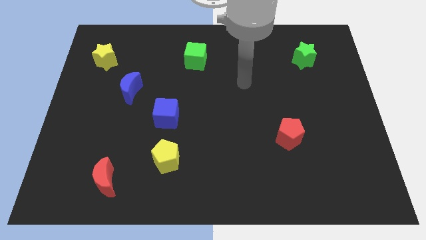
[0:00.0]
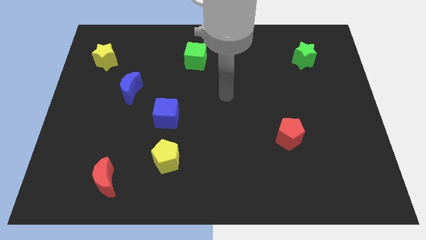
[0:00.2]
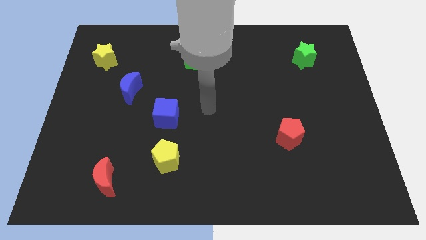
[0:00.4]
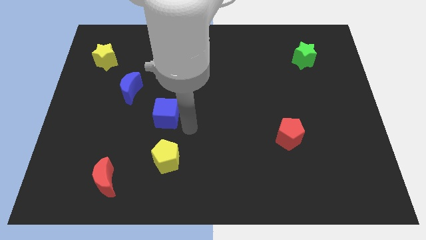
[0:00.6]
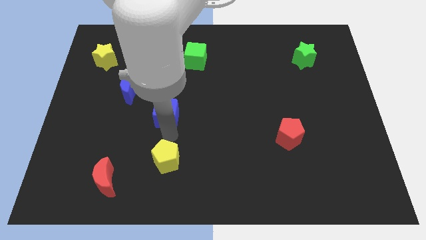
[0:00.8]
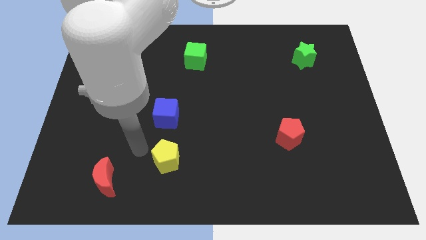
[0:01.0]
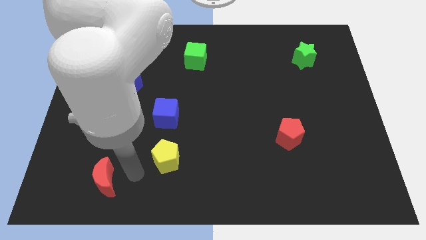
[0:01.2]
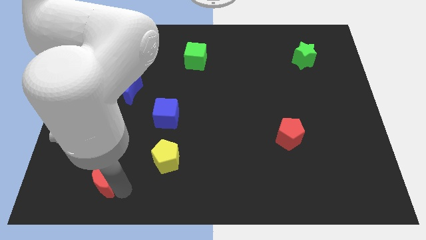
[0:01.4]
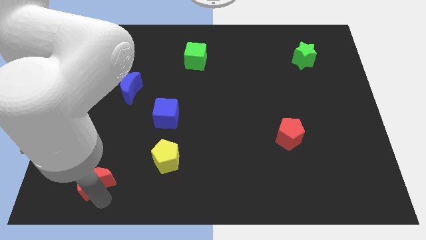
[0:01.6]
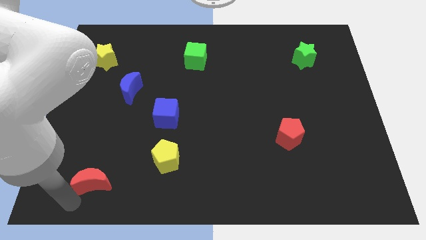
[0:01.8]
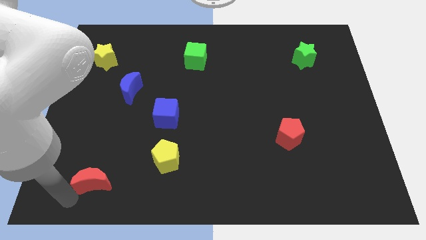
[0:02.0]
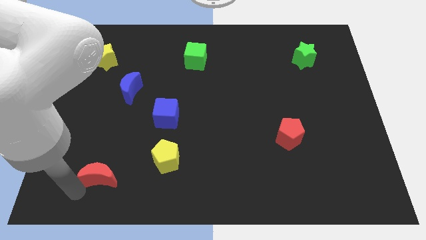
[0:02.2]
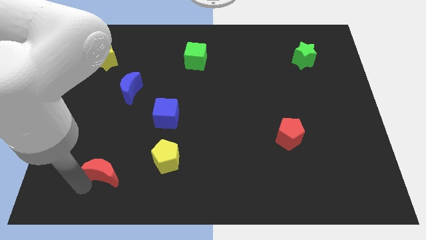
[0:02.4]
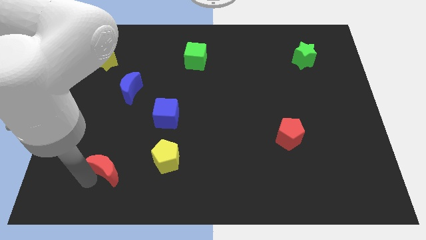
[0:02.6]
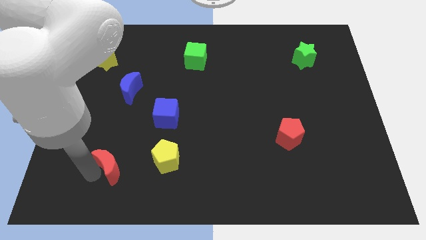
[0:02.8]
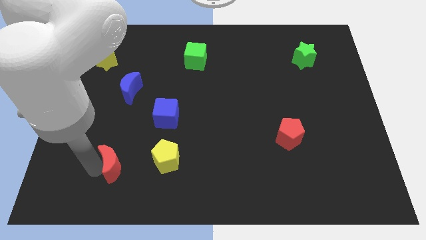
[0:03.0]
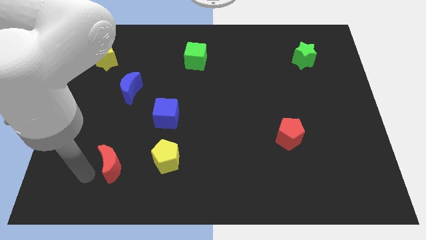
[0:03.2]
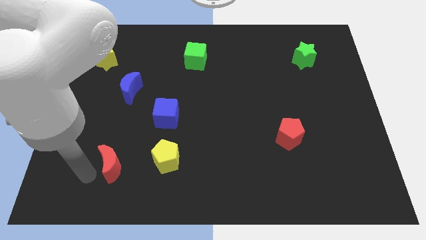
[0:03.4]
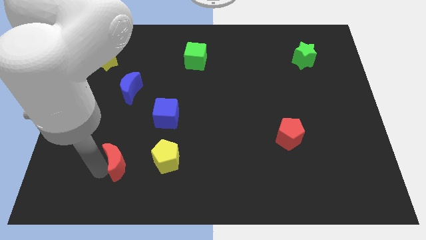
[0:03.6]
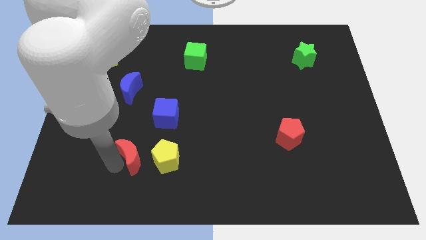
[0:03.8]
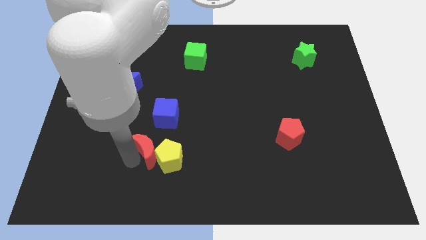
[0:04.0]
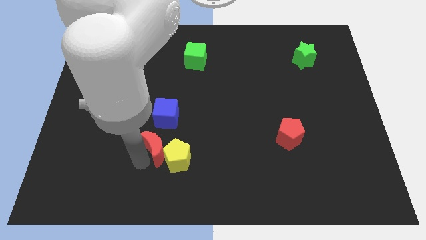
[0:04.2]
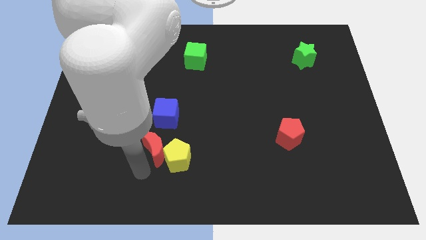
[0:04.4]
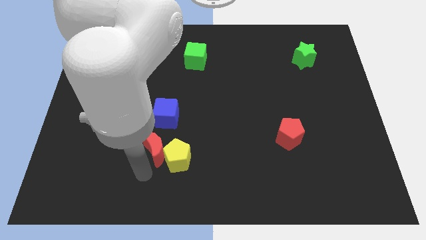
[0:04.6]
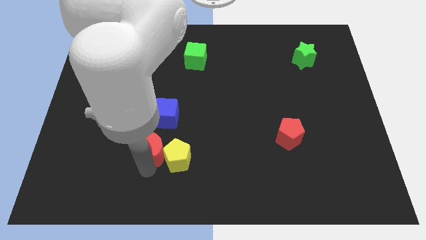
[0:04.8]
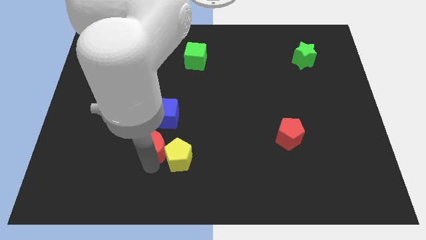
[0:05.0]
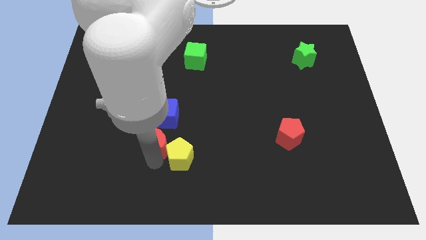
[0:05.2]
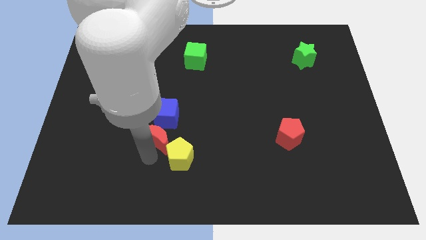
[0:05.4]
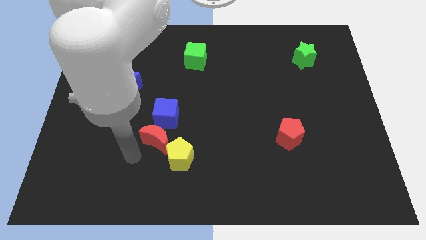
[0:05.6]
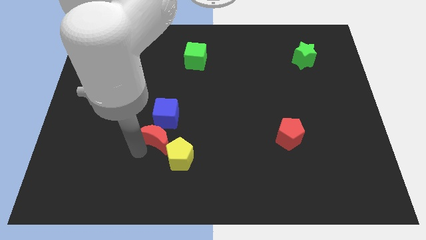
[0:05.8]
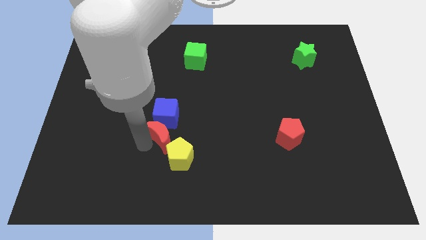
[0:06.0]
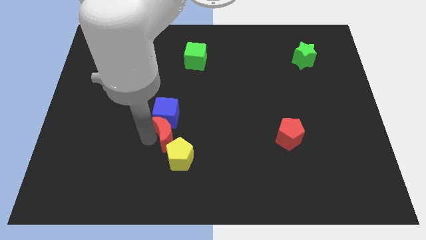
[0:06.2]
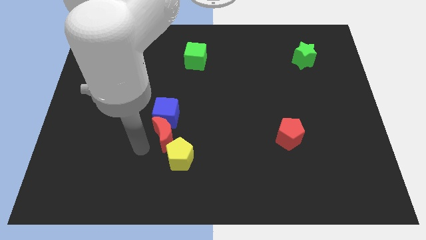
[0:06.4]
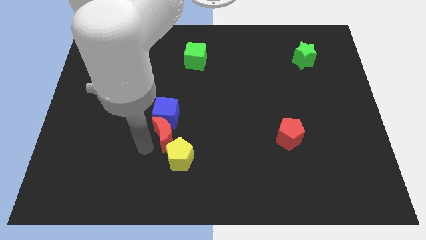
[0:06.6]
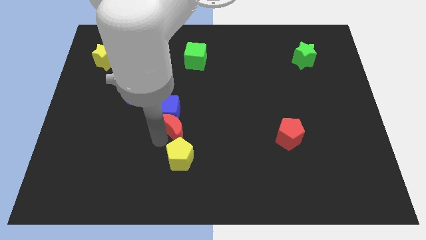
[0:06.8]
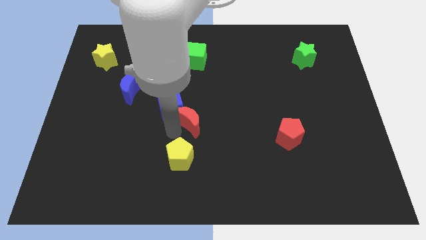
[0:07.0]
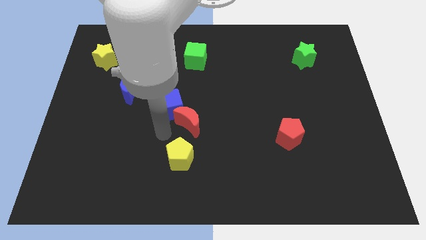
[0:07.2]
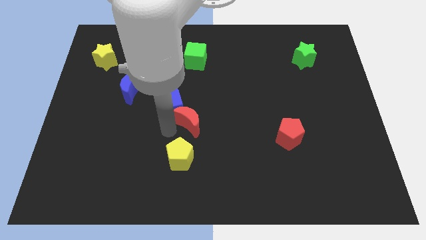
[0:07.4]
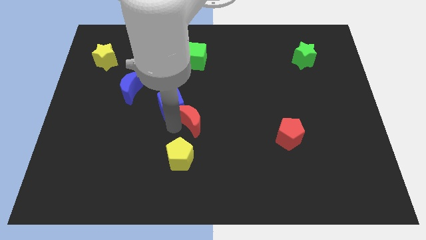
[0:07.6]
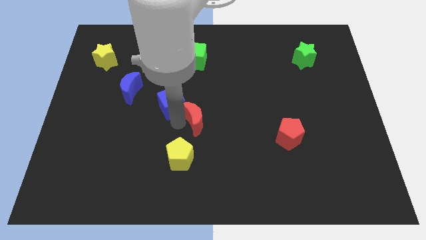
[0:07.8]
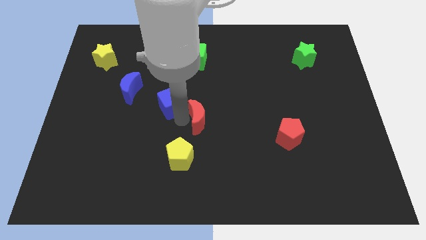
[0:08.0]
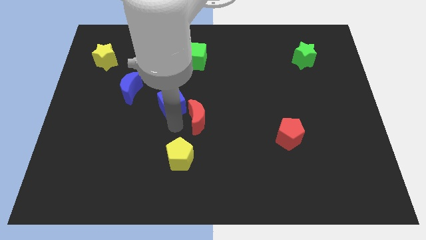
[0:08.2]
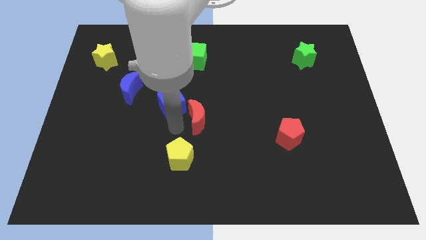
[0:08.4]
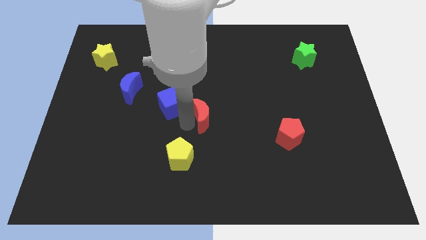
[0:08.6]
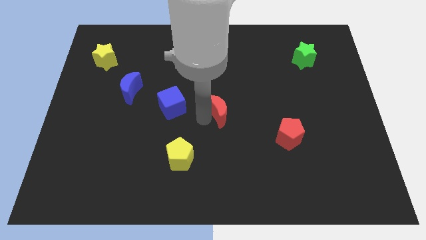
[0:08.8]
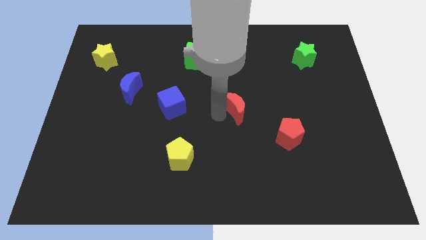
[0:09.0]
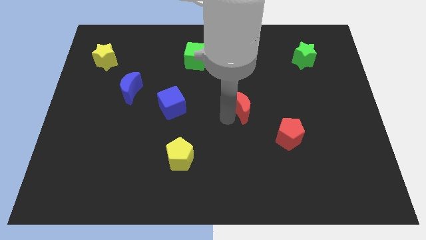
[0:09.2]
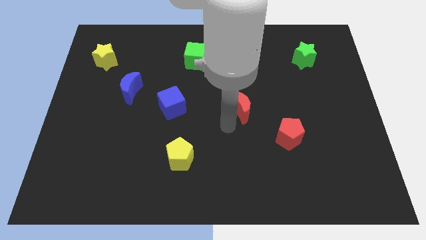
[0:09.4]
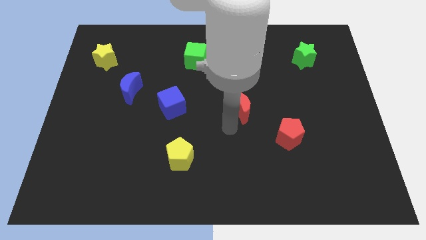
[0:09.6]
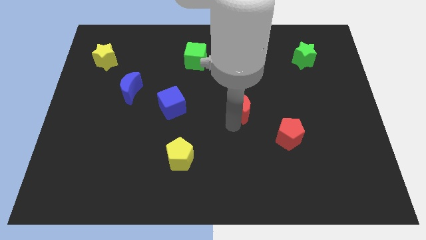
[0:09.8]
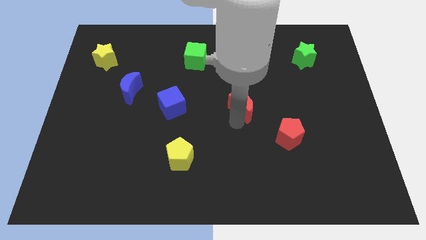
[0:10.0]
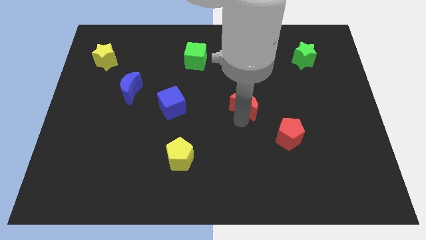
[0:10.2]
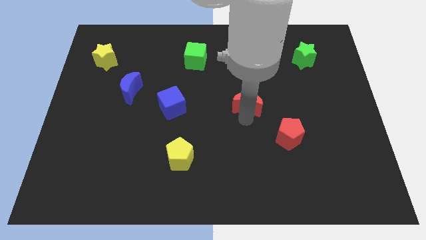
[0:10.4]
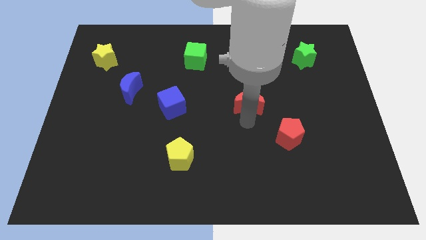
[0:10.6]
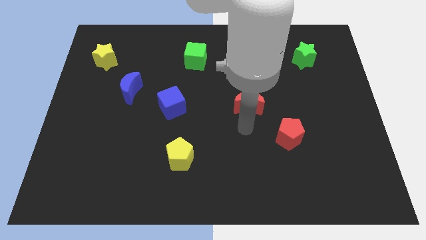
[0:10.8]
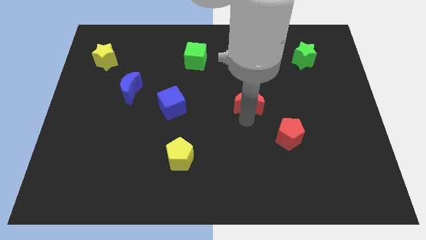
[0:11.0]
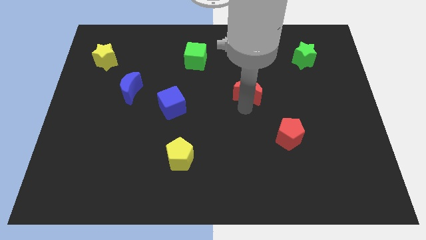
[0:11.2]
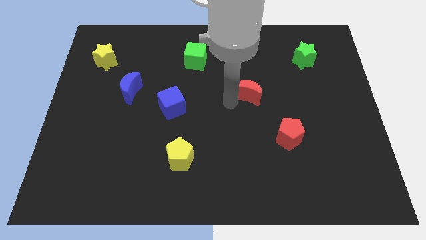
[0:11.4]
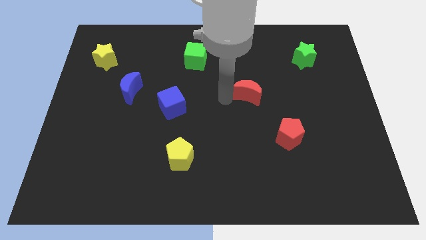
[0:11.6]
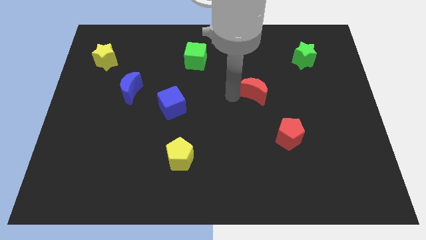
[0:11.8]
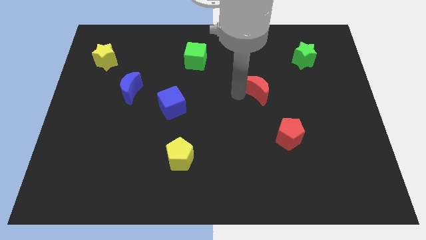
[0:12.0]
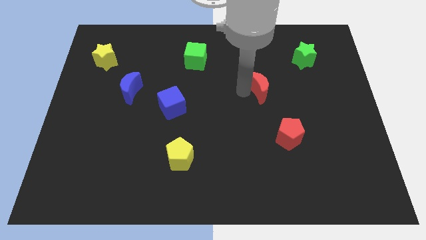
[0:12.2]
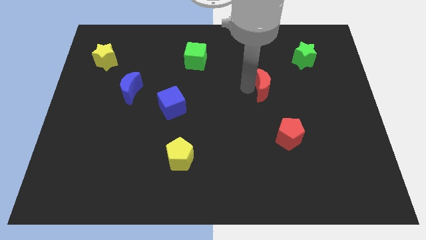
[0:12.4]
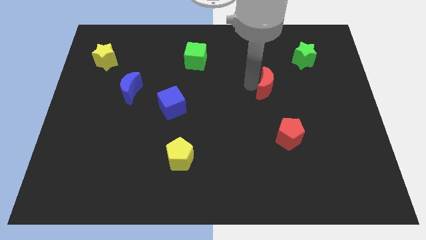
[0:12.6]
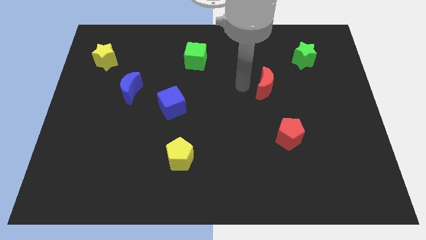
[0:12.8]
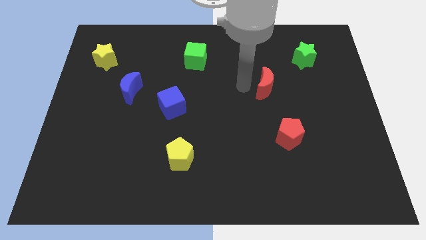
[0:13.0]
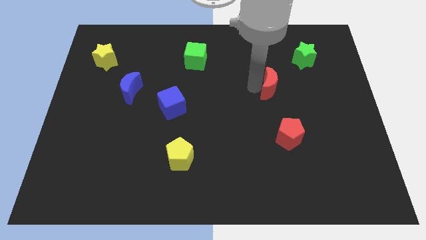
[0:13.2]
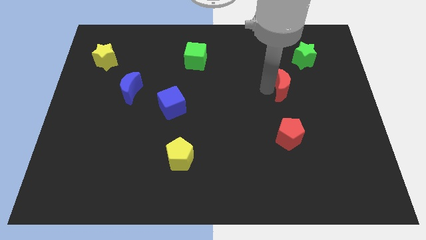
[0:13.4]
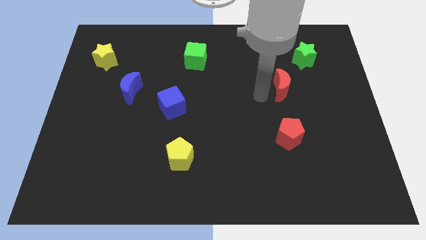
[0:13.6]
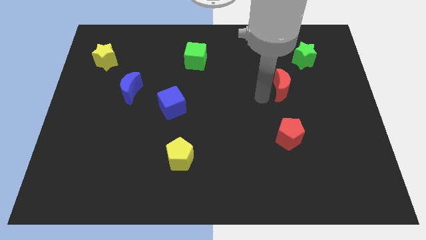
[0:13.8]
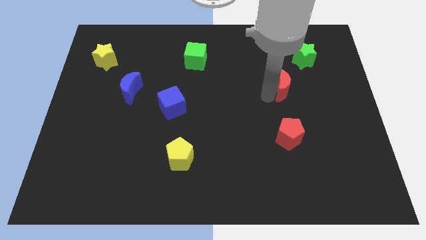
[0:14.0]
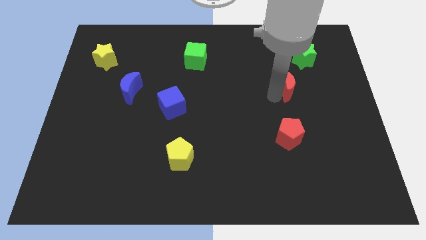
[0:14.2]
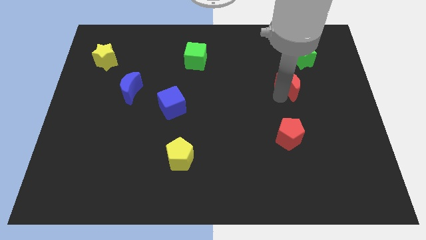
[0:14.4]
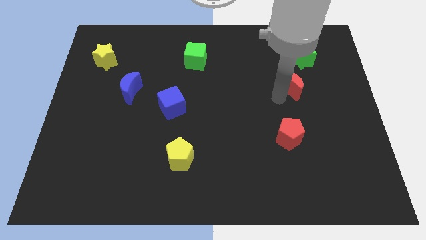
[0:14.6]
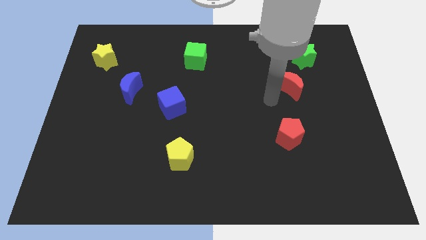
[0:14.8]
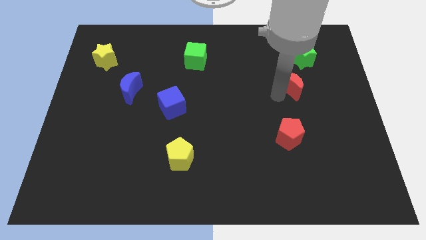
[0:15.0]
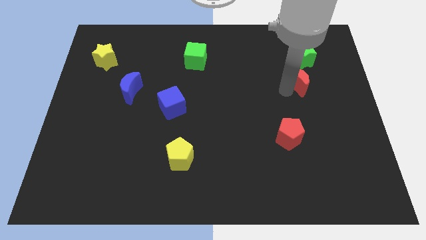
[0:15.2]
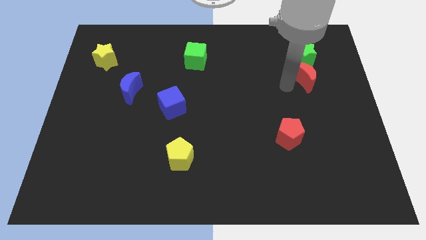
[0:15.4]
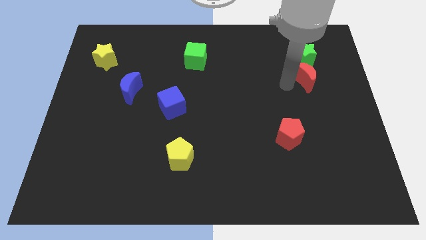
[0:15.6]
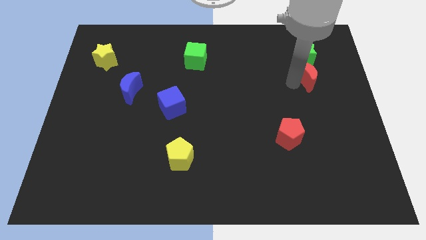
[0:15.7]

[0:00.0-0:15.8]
put the red moon to the bottom right of the green star
